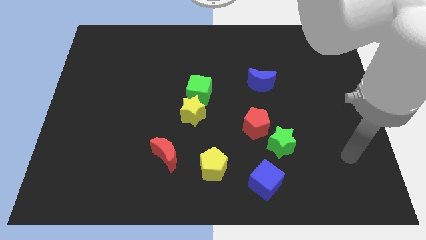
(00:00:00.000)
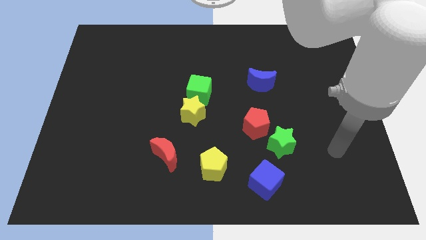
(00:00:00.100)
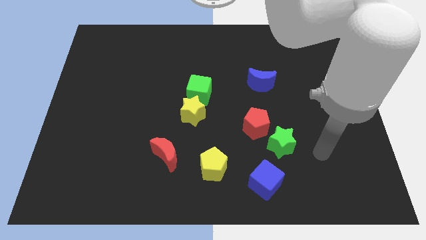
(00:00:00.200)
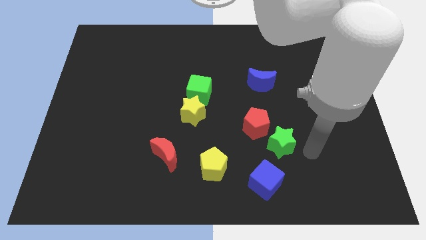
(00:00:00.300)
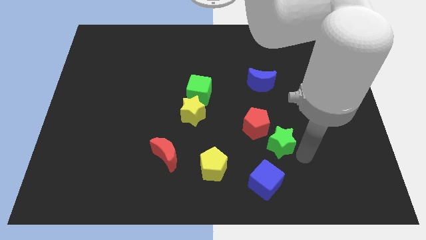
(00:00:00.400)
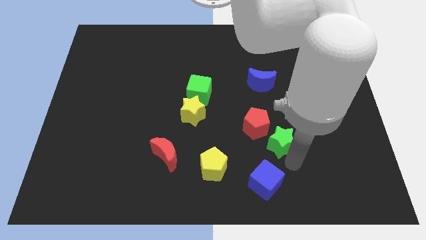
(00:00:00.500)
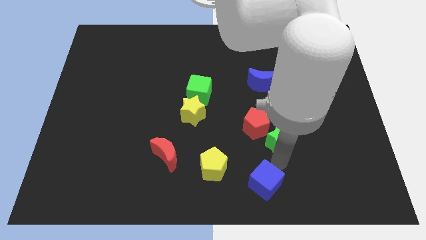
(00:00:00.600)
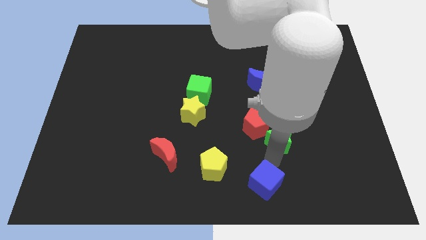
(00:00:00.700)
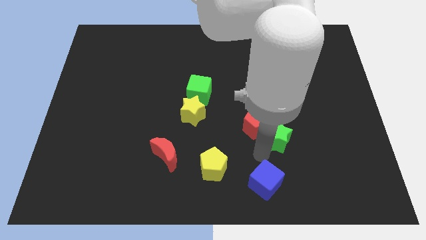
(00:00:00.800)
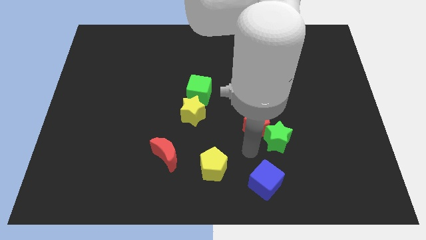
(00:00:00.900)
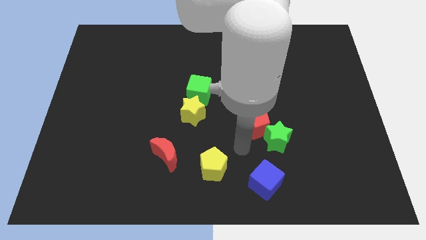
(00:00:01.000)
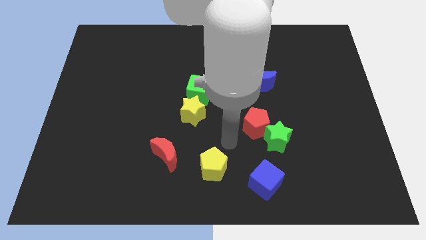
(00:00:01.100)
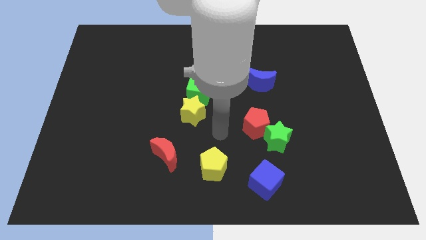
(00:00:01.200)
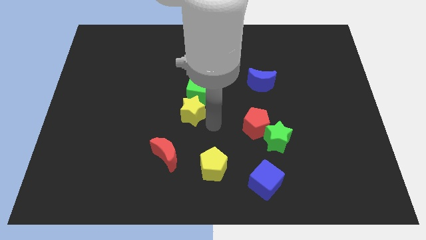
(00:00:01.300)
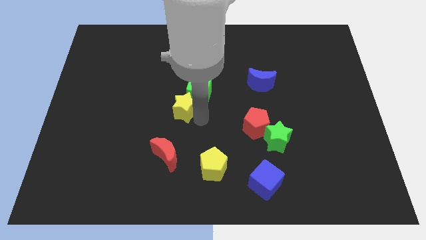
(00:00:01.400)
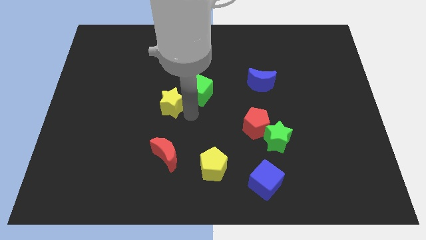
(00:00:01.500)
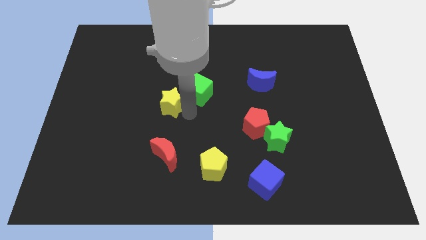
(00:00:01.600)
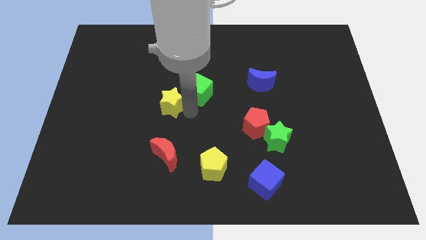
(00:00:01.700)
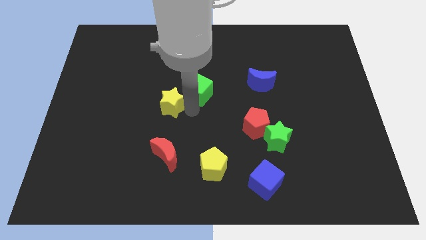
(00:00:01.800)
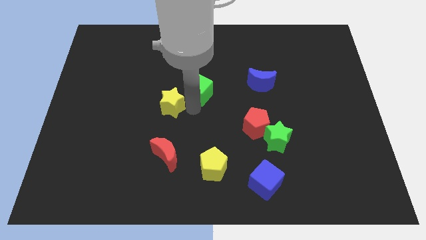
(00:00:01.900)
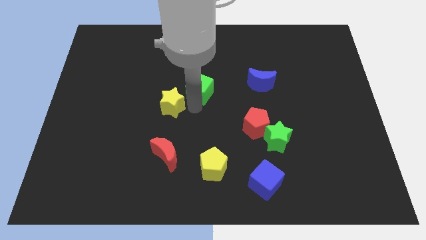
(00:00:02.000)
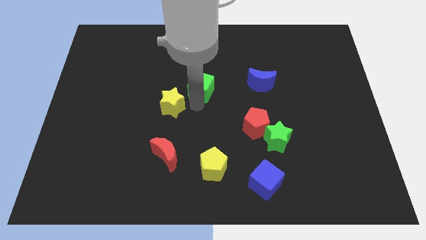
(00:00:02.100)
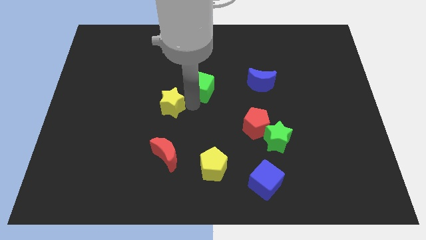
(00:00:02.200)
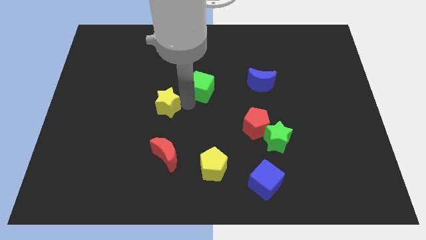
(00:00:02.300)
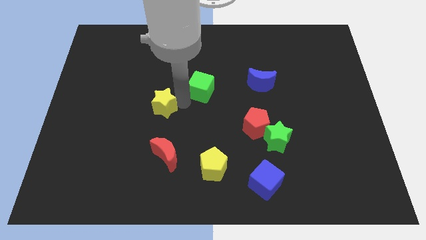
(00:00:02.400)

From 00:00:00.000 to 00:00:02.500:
move the green cube away from the yellow star

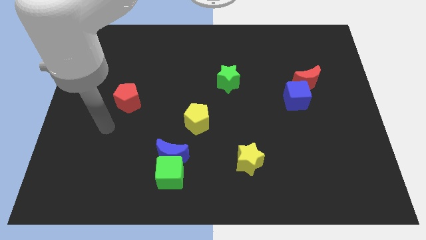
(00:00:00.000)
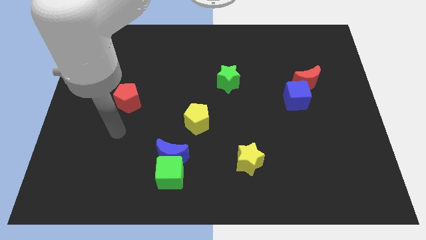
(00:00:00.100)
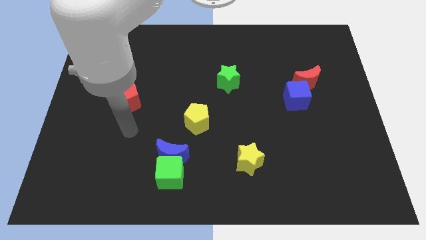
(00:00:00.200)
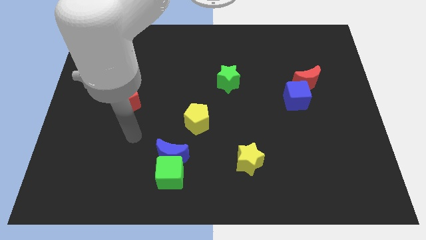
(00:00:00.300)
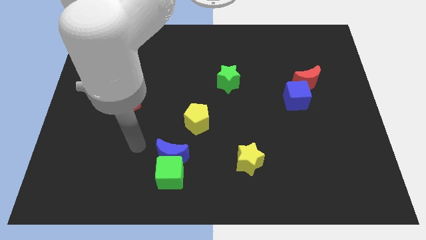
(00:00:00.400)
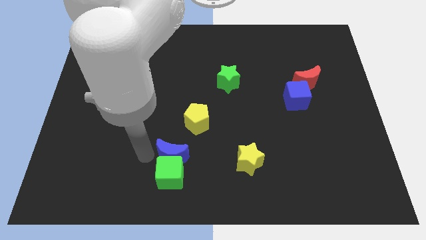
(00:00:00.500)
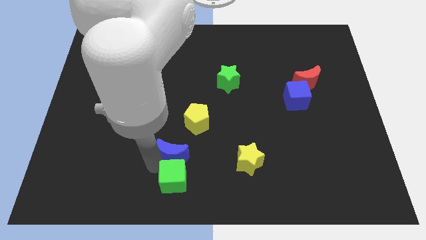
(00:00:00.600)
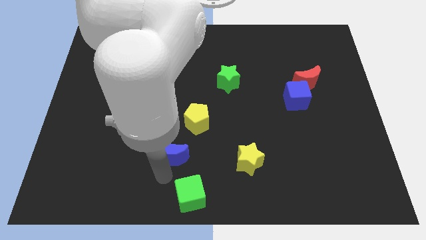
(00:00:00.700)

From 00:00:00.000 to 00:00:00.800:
pull the blue moon apart from the green cube

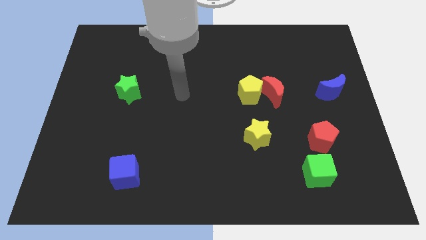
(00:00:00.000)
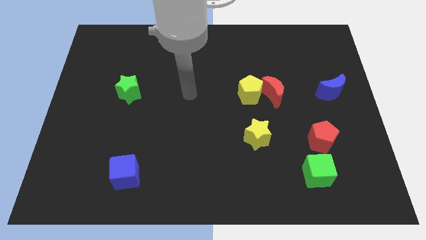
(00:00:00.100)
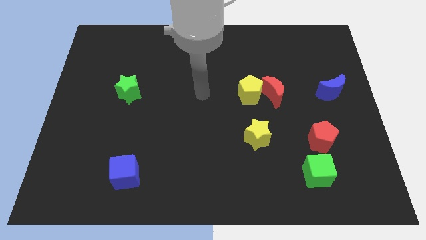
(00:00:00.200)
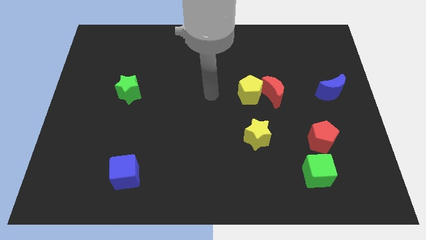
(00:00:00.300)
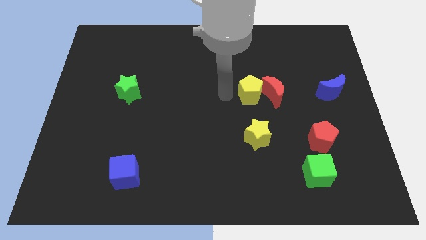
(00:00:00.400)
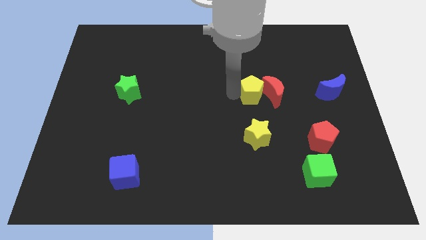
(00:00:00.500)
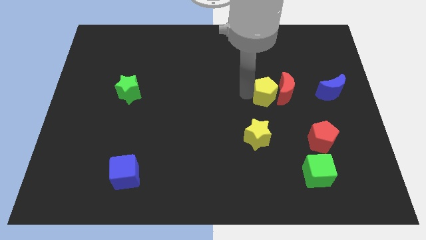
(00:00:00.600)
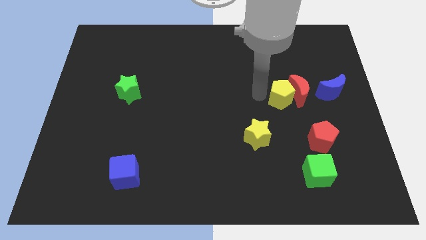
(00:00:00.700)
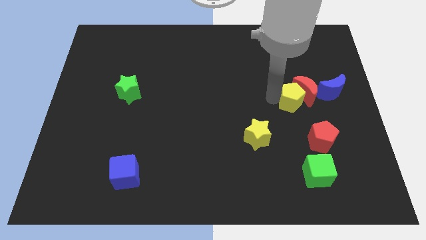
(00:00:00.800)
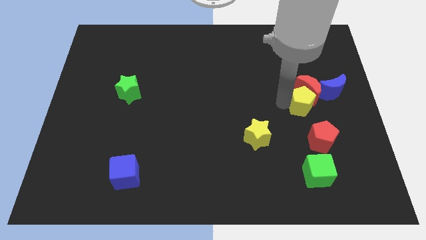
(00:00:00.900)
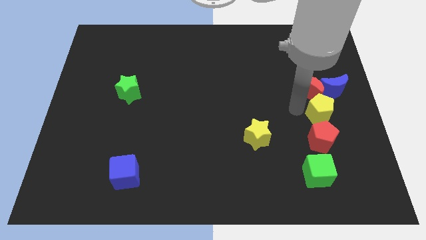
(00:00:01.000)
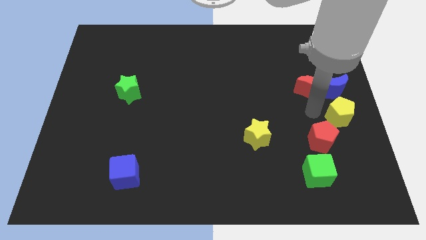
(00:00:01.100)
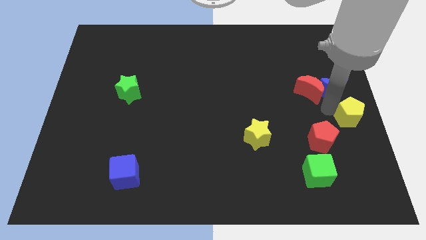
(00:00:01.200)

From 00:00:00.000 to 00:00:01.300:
pull the red moon apart from the yellow pentagon

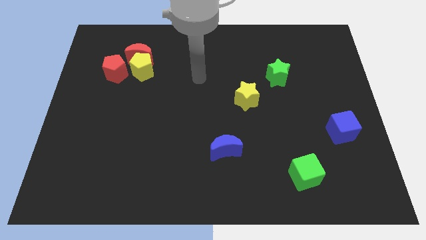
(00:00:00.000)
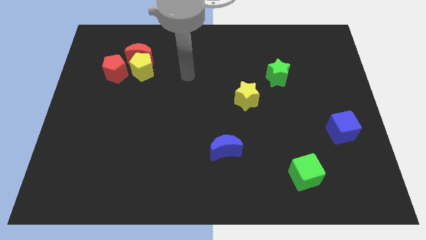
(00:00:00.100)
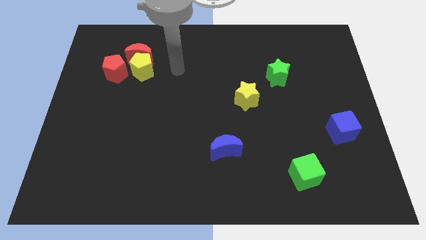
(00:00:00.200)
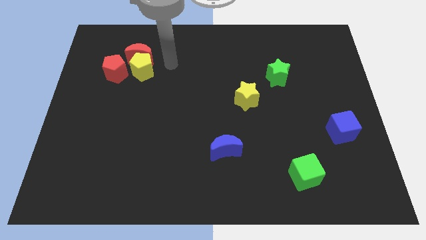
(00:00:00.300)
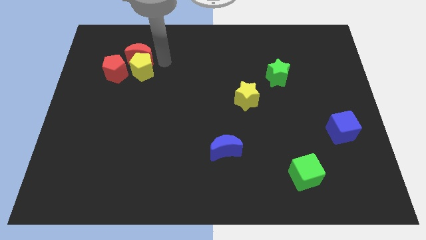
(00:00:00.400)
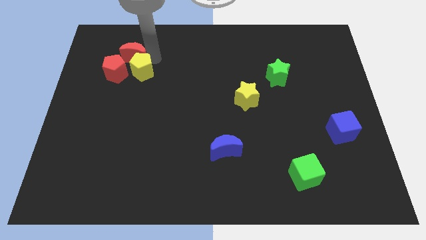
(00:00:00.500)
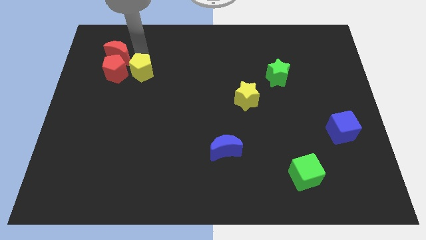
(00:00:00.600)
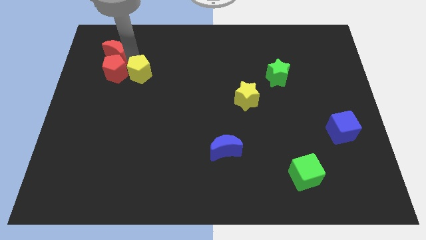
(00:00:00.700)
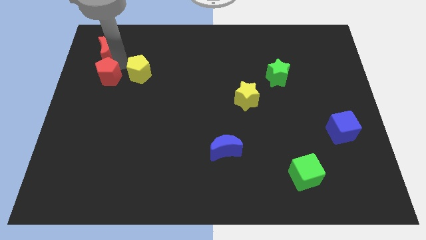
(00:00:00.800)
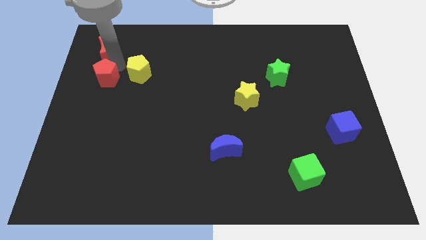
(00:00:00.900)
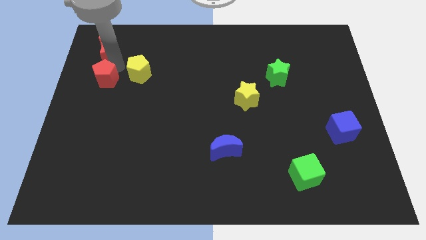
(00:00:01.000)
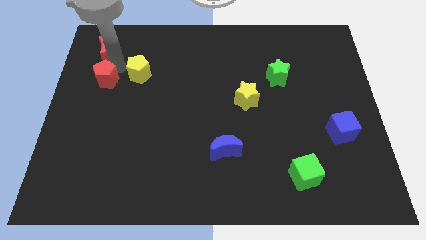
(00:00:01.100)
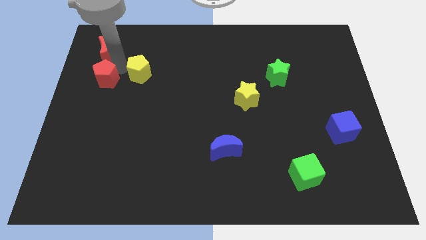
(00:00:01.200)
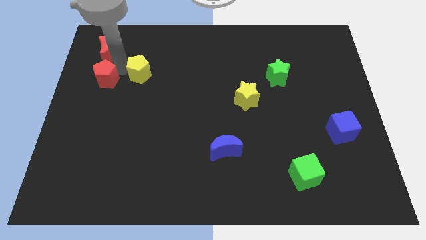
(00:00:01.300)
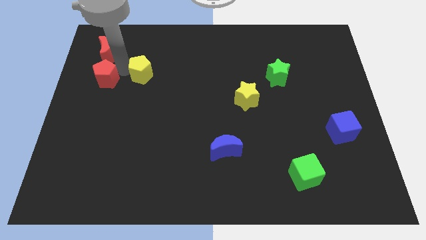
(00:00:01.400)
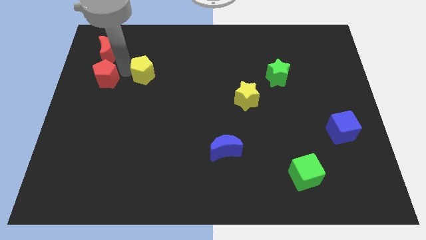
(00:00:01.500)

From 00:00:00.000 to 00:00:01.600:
move the yellow pentagon away from the red moon and red pentagon

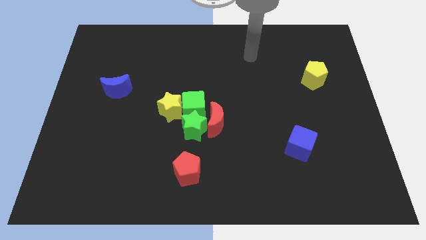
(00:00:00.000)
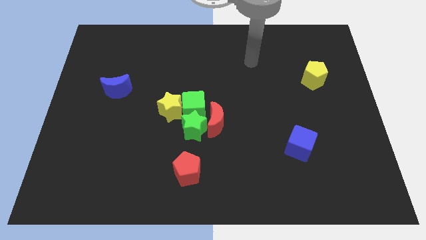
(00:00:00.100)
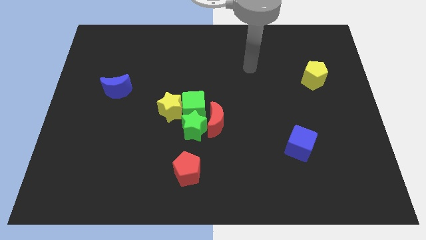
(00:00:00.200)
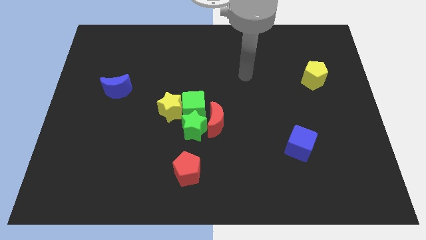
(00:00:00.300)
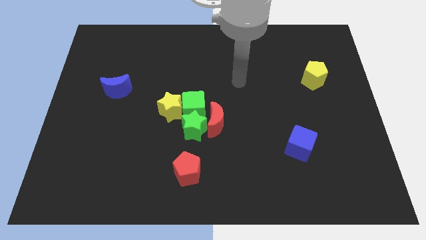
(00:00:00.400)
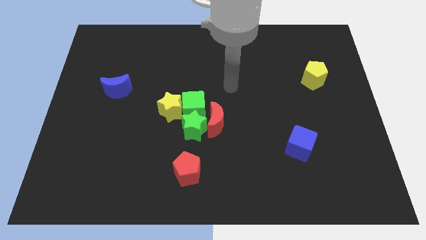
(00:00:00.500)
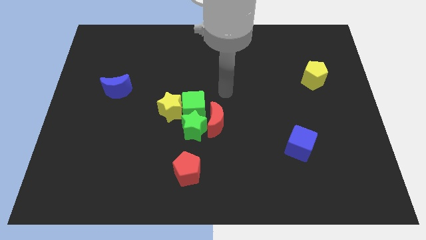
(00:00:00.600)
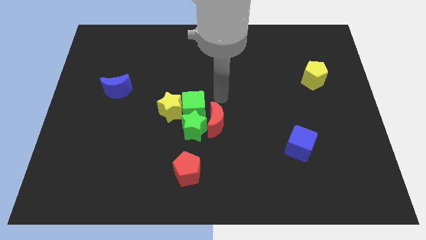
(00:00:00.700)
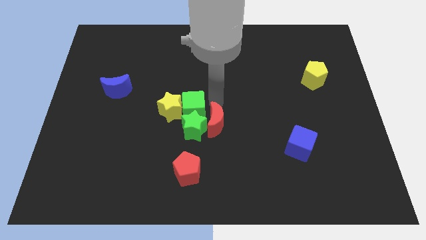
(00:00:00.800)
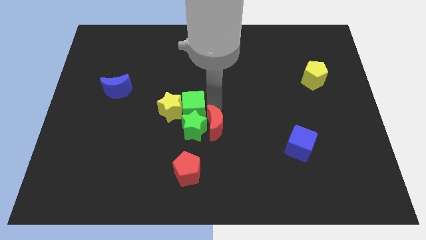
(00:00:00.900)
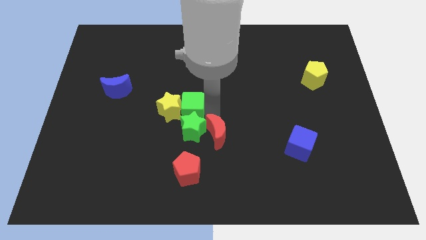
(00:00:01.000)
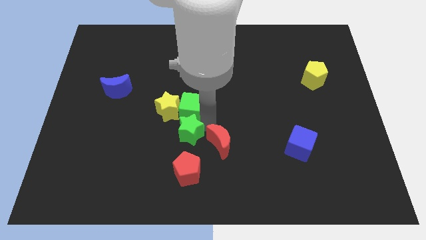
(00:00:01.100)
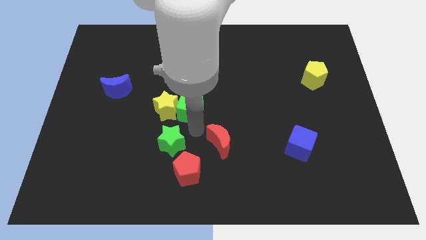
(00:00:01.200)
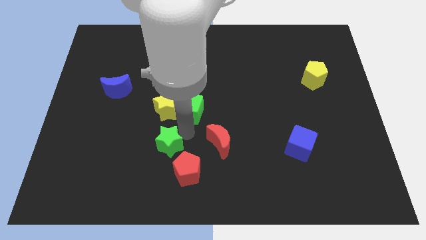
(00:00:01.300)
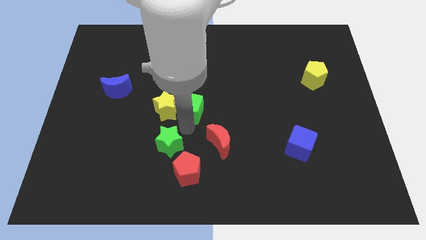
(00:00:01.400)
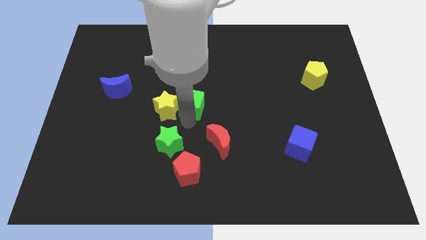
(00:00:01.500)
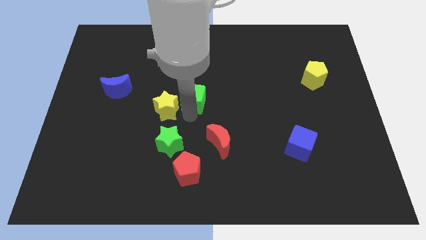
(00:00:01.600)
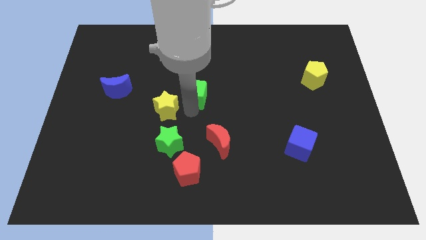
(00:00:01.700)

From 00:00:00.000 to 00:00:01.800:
pull the green cube apart from the group

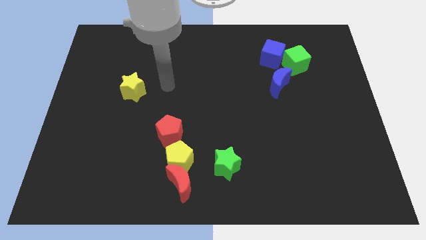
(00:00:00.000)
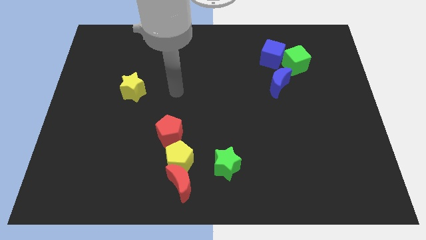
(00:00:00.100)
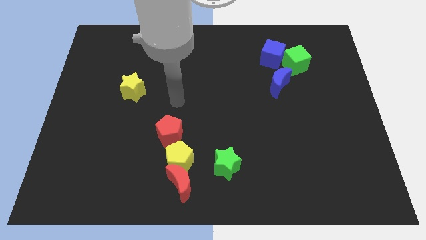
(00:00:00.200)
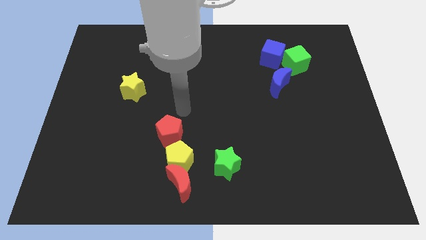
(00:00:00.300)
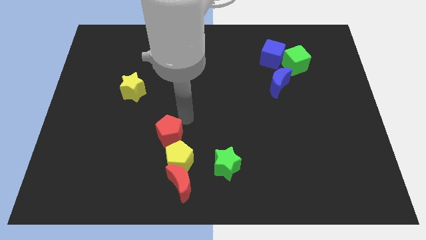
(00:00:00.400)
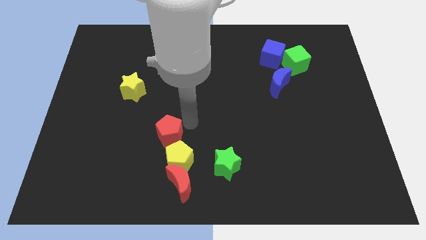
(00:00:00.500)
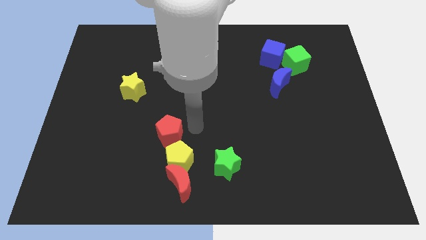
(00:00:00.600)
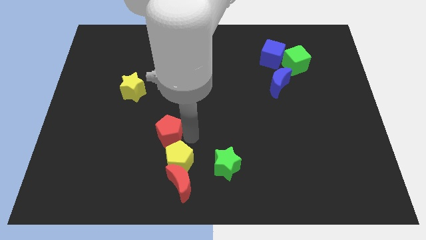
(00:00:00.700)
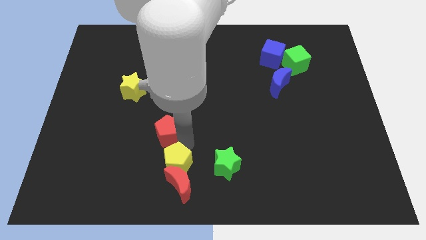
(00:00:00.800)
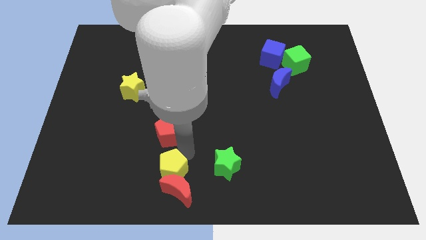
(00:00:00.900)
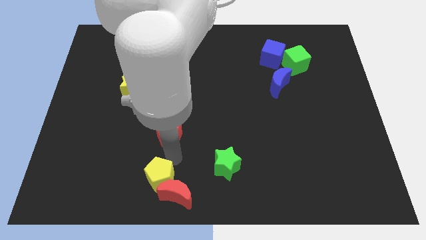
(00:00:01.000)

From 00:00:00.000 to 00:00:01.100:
separate the red pentagon from the yellow pentagon

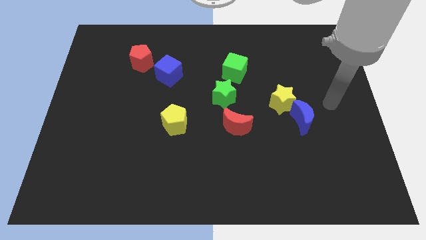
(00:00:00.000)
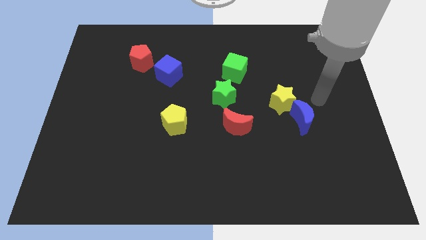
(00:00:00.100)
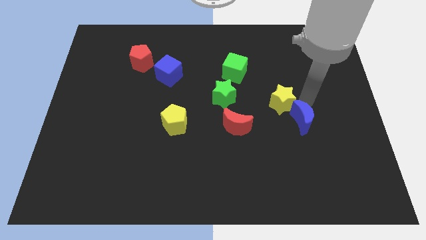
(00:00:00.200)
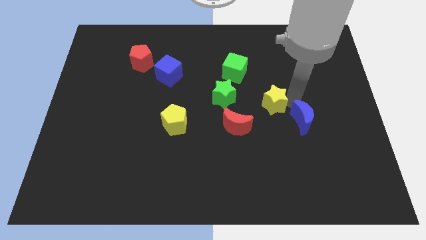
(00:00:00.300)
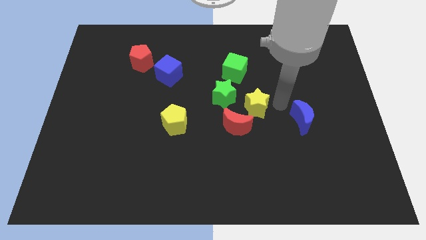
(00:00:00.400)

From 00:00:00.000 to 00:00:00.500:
move the blue moon away from the yellow star
